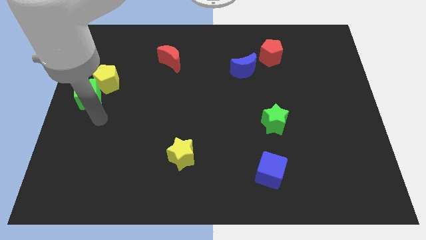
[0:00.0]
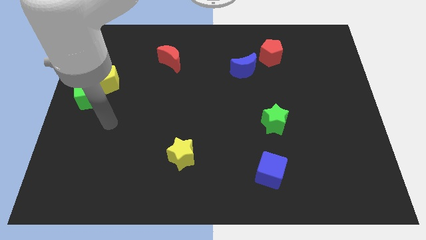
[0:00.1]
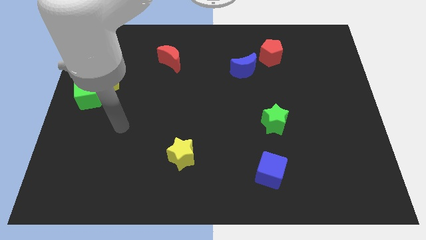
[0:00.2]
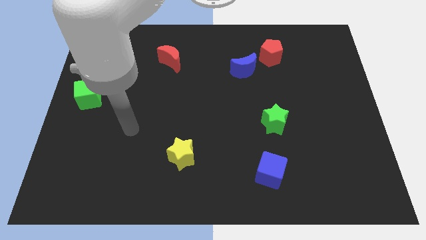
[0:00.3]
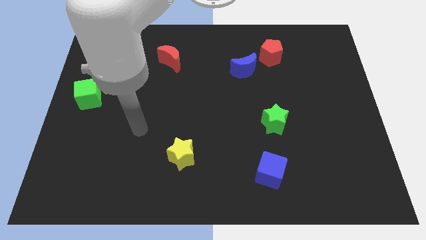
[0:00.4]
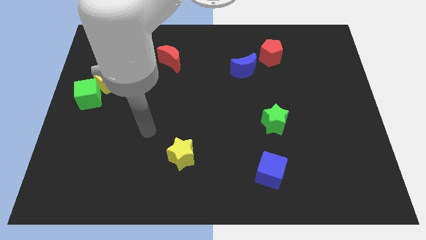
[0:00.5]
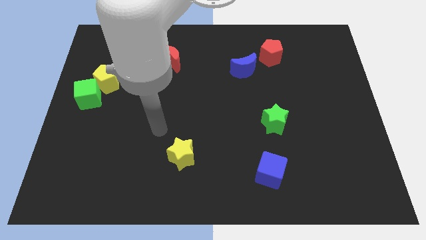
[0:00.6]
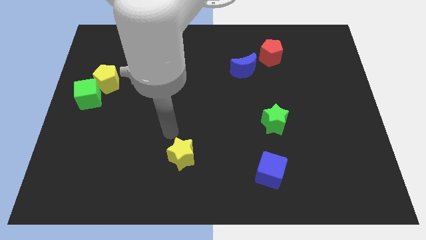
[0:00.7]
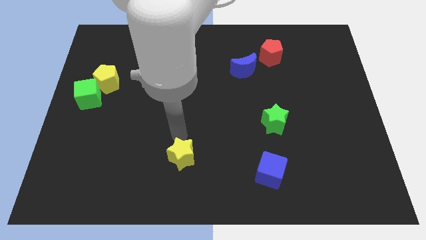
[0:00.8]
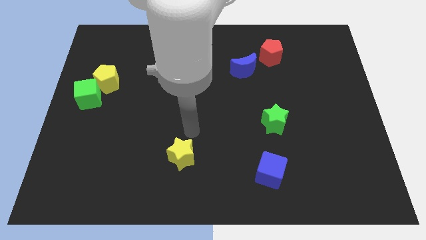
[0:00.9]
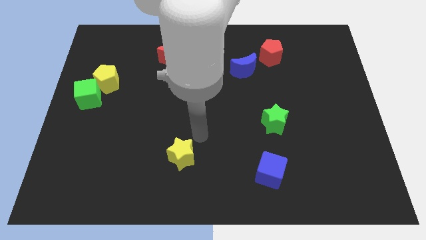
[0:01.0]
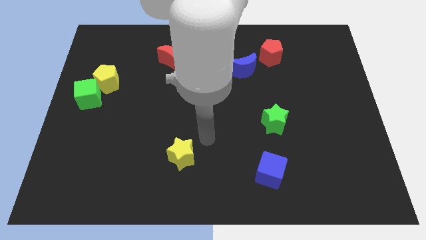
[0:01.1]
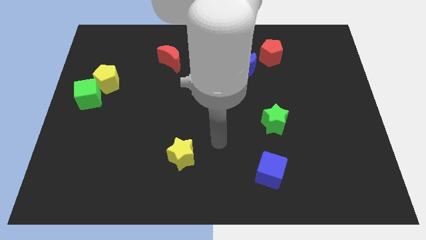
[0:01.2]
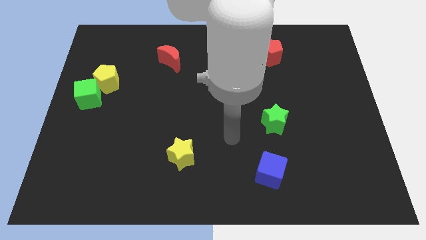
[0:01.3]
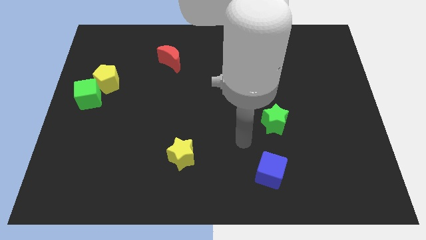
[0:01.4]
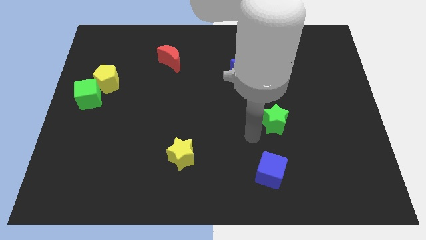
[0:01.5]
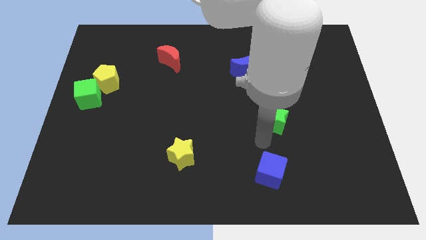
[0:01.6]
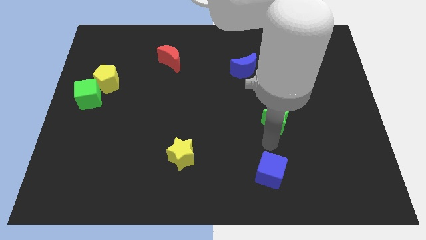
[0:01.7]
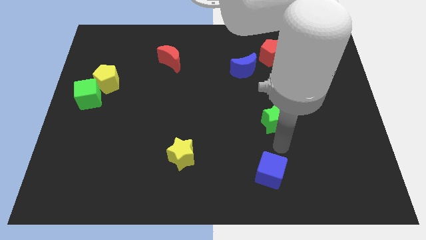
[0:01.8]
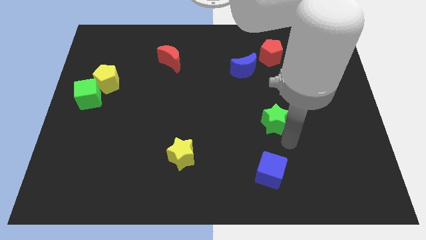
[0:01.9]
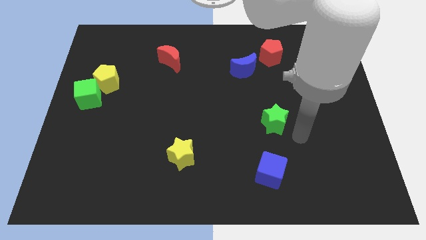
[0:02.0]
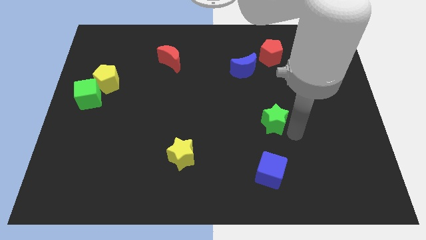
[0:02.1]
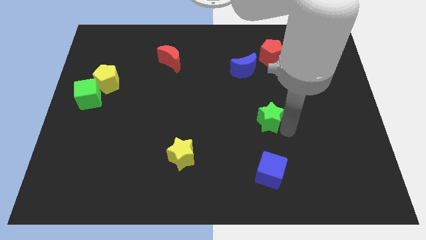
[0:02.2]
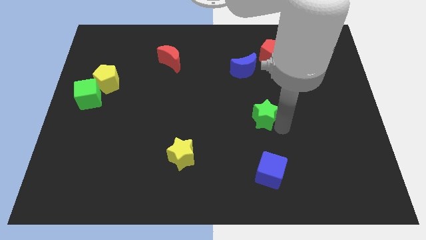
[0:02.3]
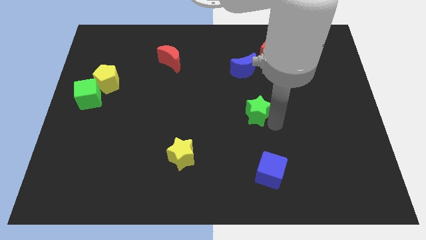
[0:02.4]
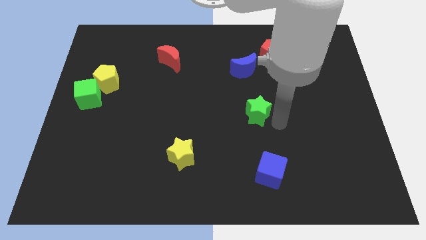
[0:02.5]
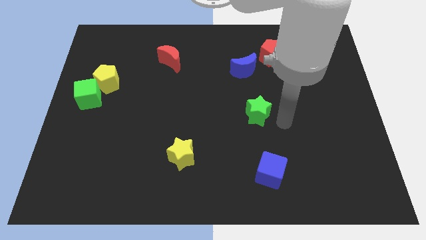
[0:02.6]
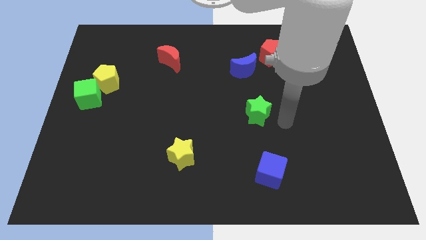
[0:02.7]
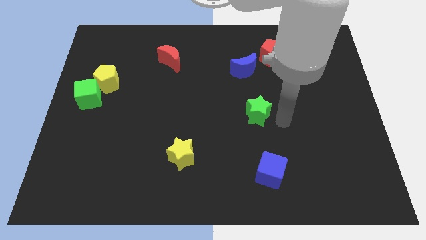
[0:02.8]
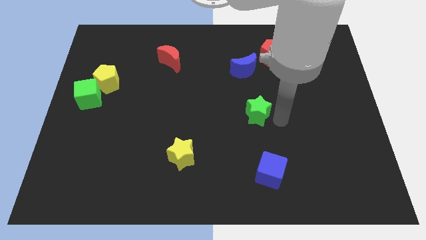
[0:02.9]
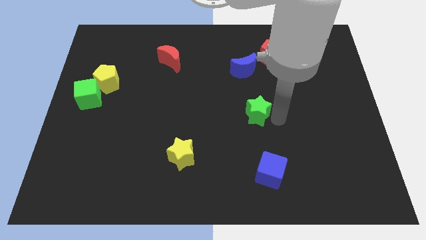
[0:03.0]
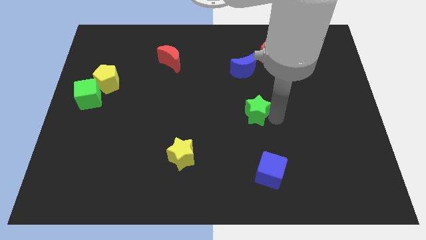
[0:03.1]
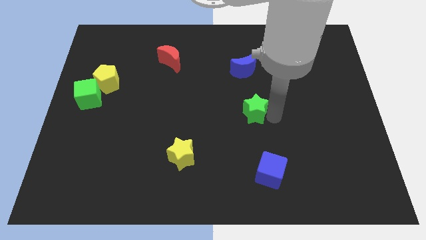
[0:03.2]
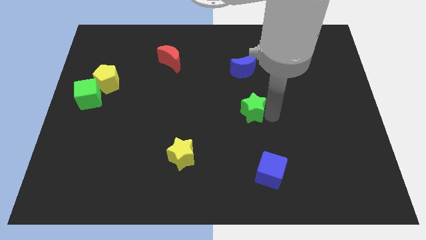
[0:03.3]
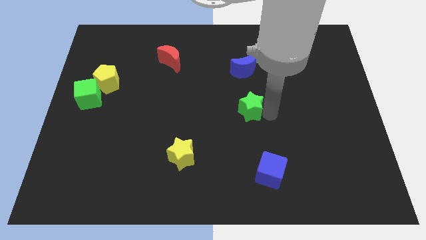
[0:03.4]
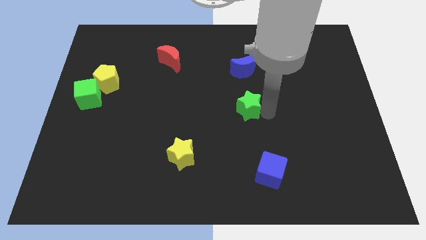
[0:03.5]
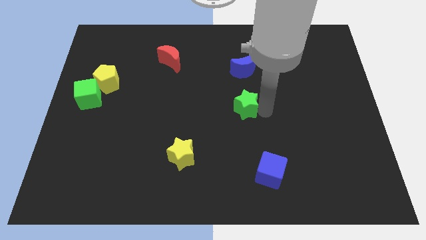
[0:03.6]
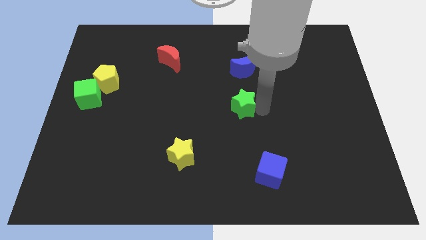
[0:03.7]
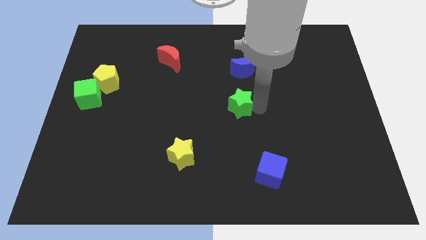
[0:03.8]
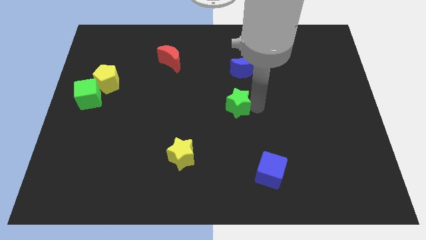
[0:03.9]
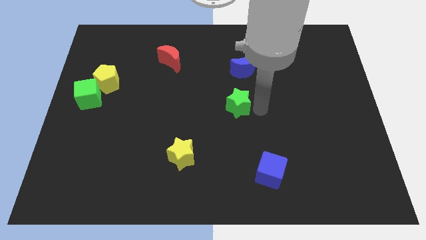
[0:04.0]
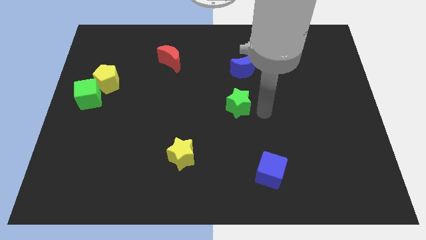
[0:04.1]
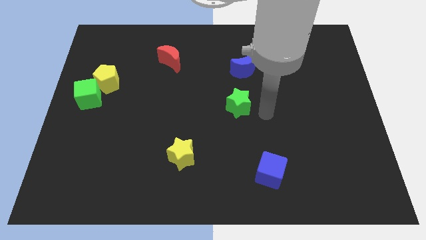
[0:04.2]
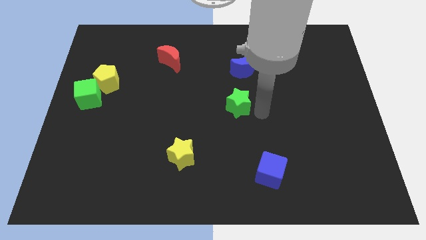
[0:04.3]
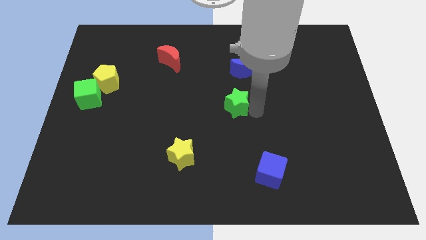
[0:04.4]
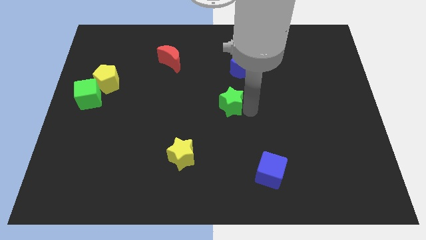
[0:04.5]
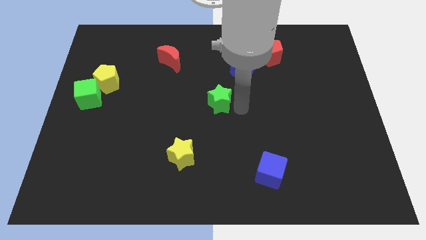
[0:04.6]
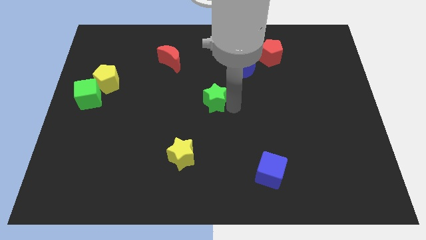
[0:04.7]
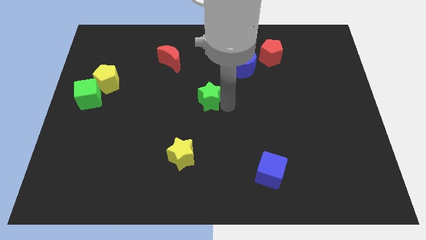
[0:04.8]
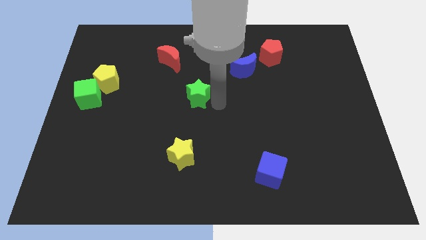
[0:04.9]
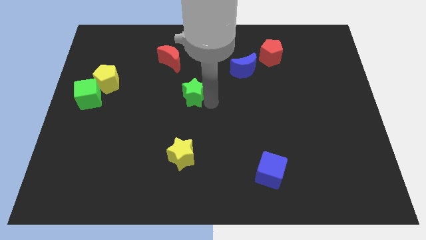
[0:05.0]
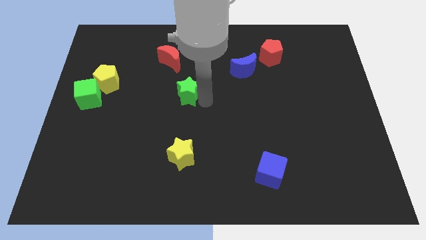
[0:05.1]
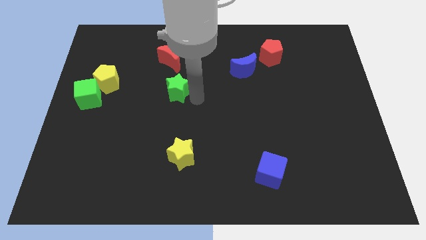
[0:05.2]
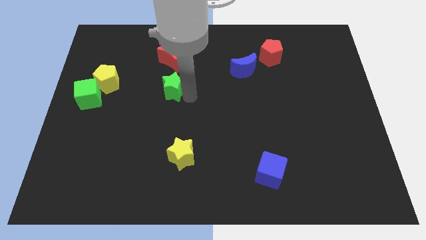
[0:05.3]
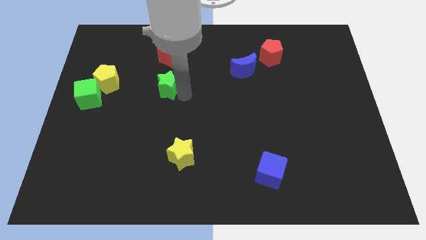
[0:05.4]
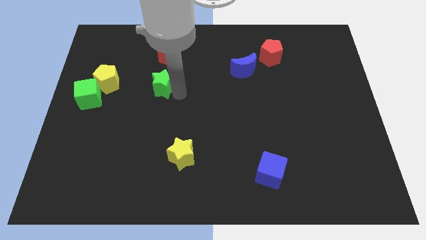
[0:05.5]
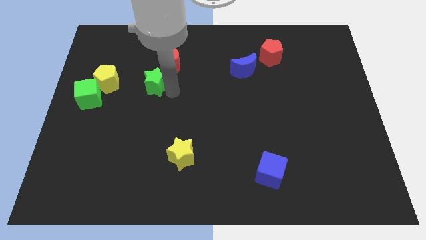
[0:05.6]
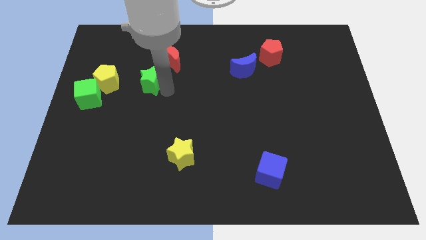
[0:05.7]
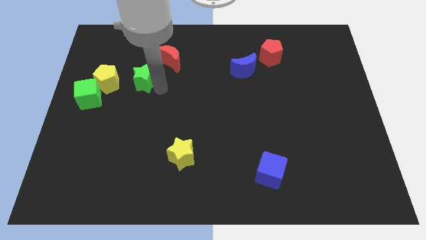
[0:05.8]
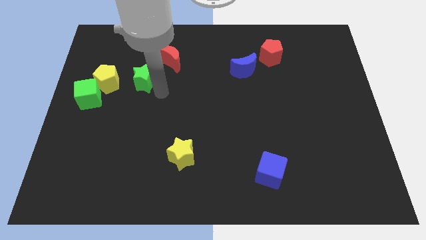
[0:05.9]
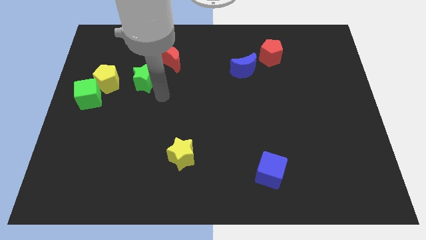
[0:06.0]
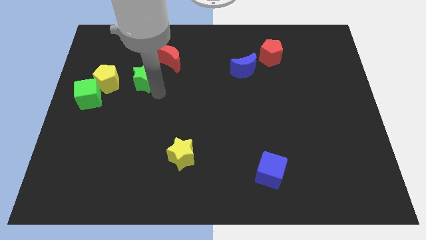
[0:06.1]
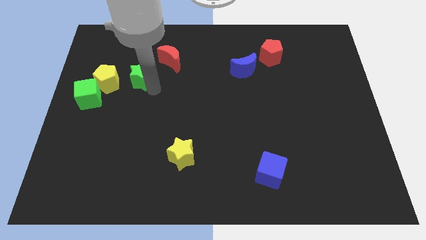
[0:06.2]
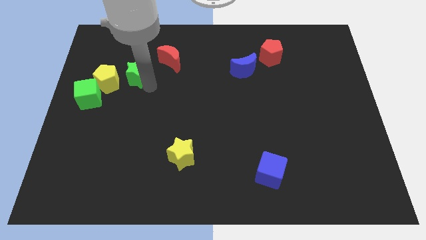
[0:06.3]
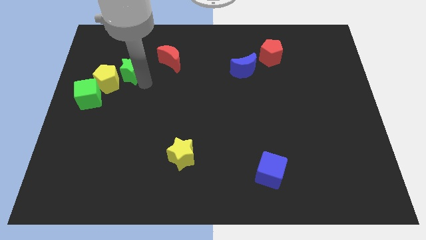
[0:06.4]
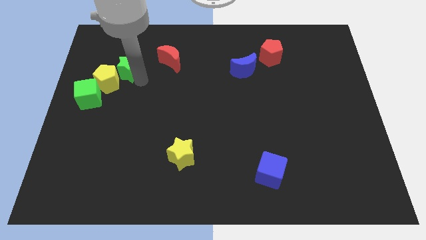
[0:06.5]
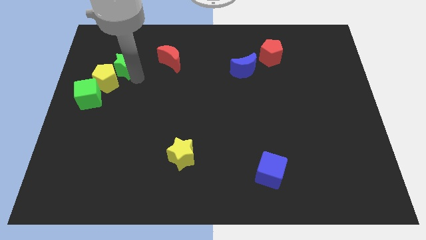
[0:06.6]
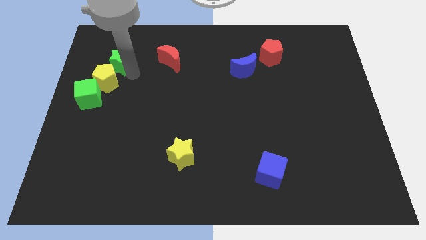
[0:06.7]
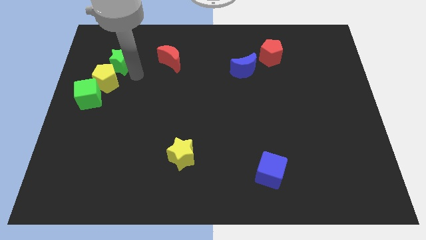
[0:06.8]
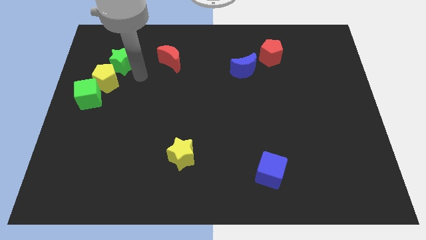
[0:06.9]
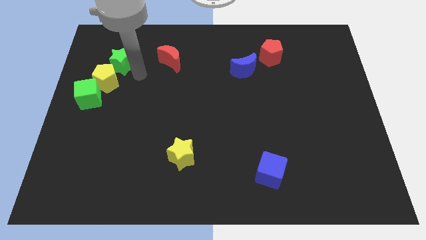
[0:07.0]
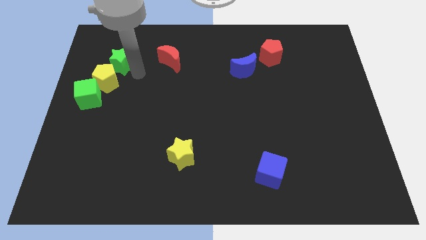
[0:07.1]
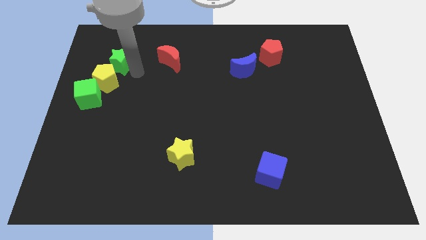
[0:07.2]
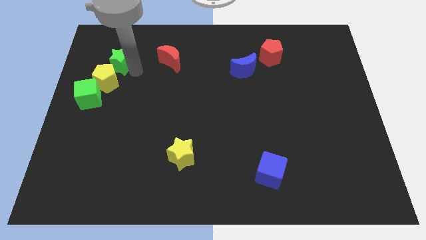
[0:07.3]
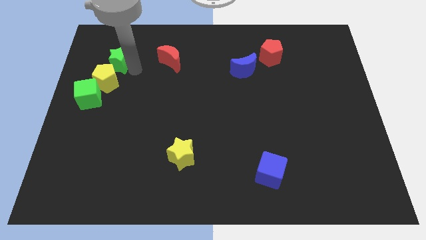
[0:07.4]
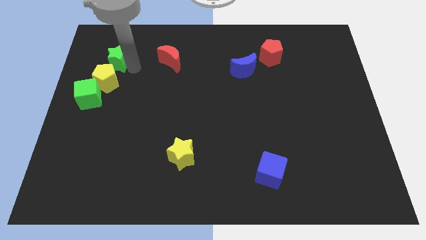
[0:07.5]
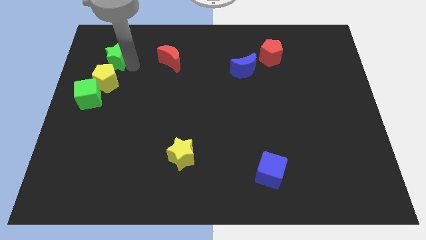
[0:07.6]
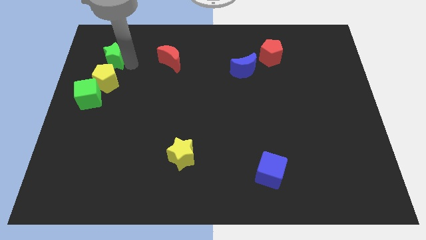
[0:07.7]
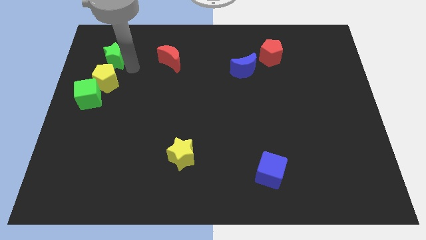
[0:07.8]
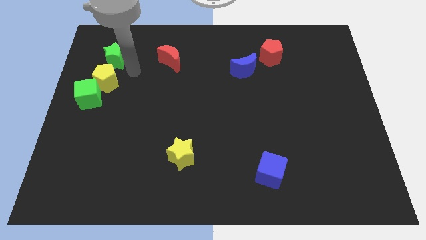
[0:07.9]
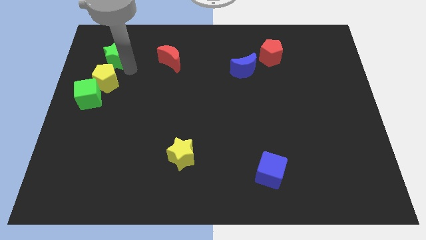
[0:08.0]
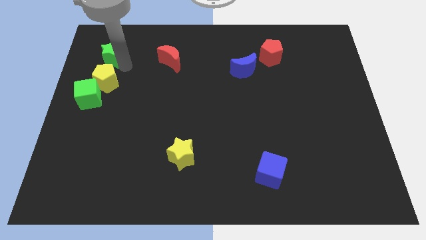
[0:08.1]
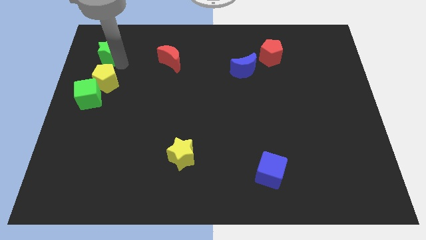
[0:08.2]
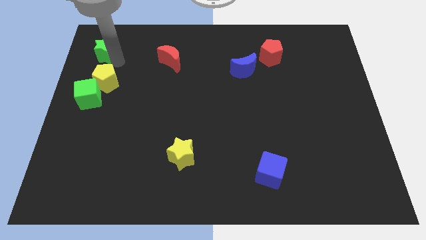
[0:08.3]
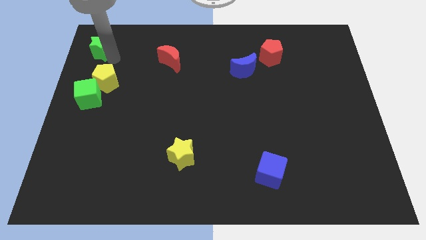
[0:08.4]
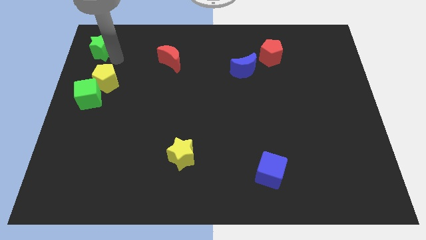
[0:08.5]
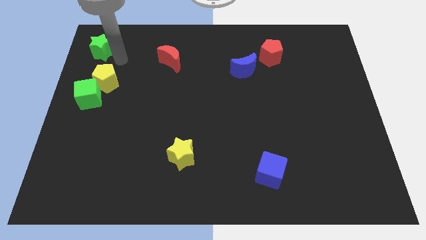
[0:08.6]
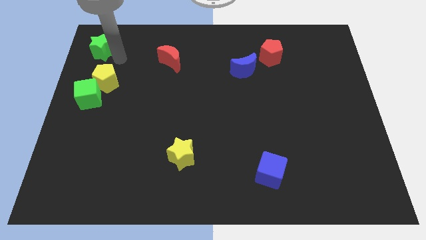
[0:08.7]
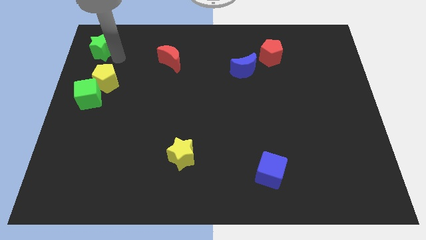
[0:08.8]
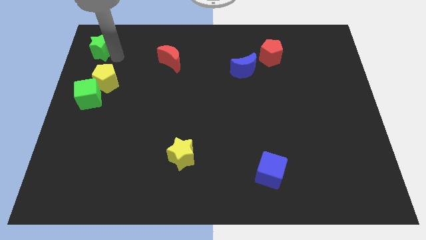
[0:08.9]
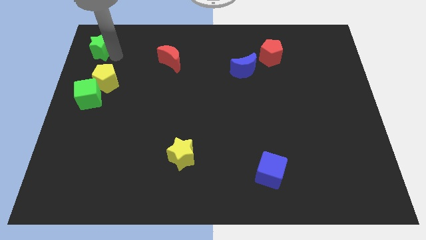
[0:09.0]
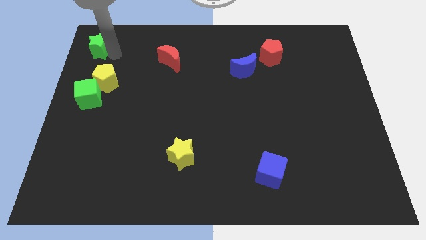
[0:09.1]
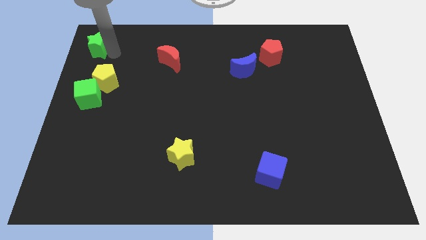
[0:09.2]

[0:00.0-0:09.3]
move the green star to the top left corner
